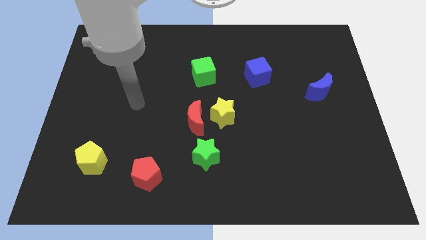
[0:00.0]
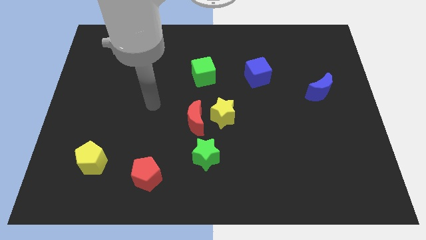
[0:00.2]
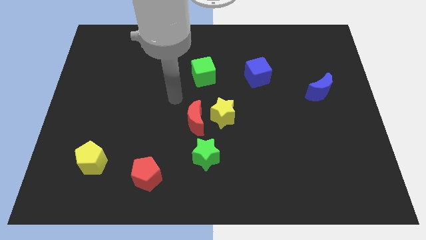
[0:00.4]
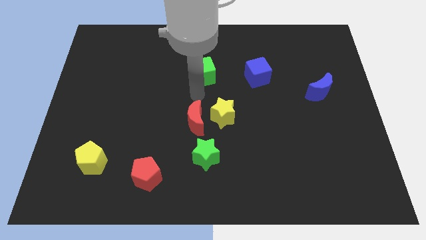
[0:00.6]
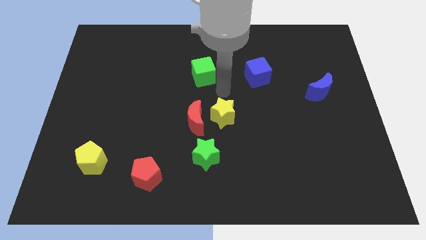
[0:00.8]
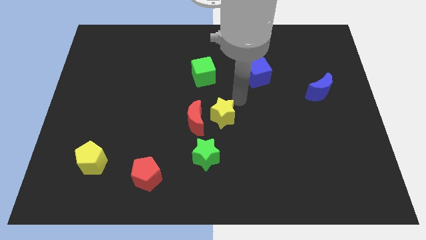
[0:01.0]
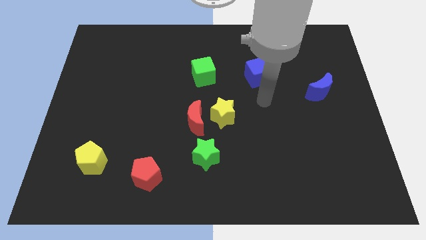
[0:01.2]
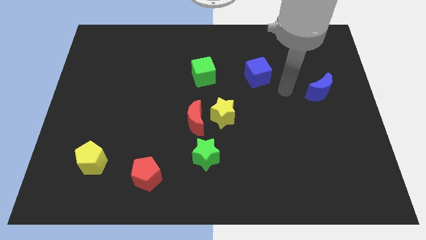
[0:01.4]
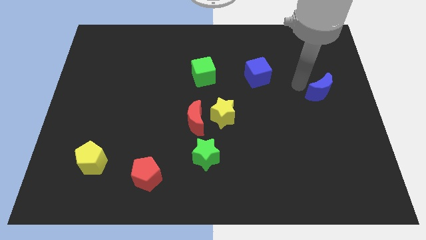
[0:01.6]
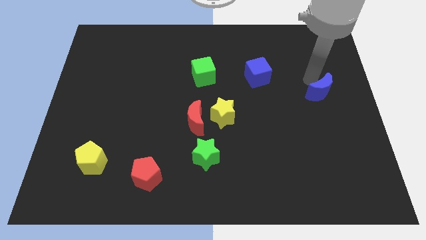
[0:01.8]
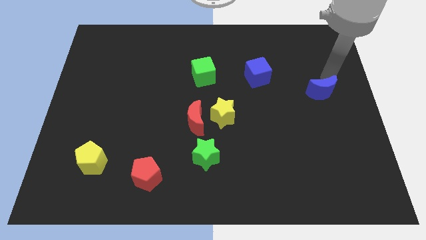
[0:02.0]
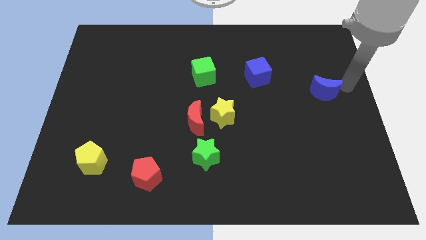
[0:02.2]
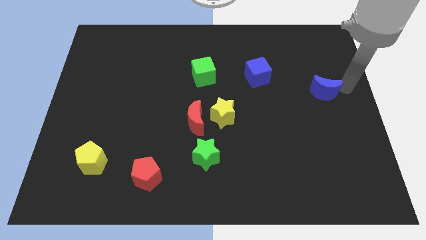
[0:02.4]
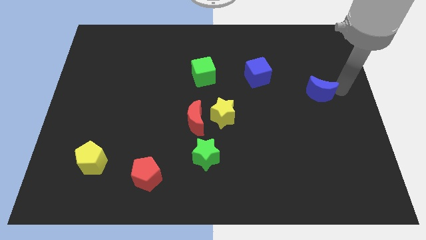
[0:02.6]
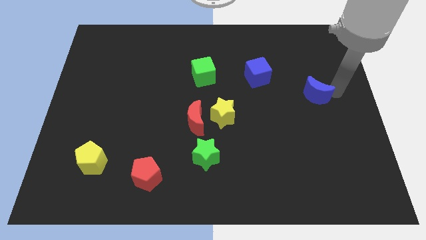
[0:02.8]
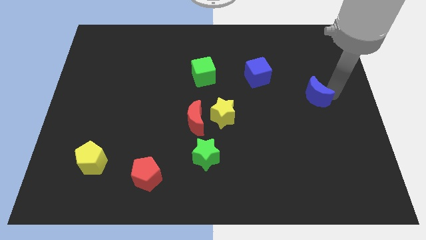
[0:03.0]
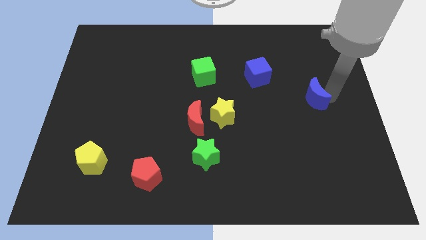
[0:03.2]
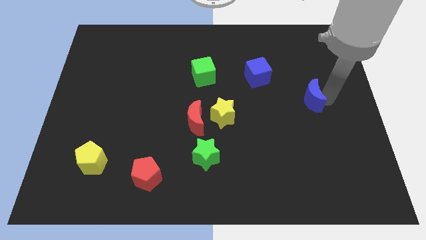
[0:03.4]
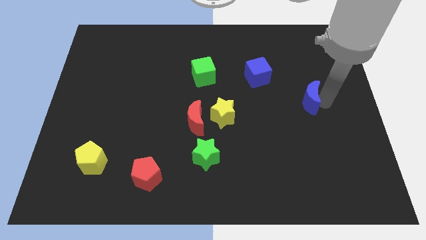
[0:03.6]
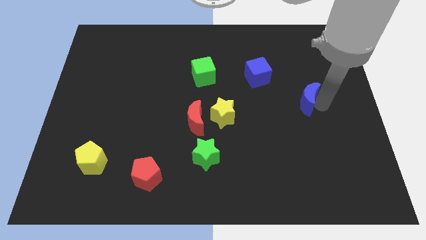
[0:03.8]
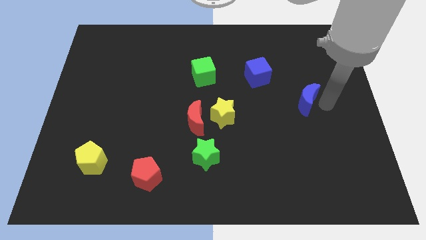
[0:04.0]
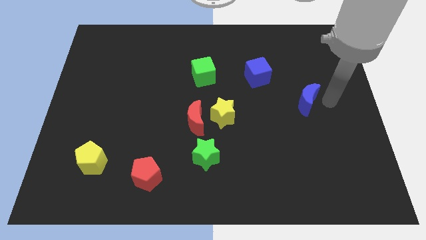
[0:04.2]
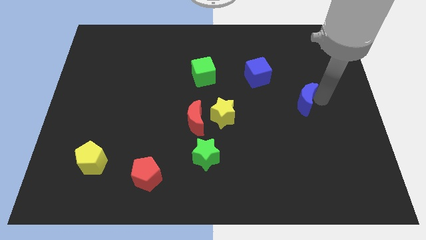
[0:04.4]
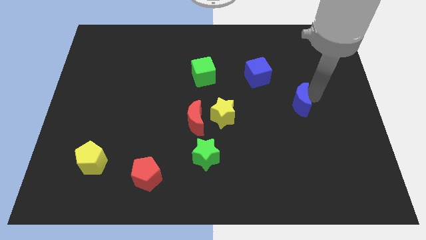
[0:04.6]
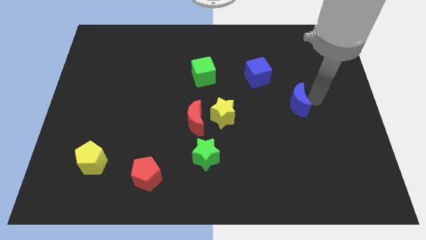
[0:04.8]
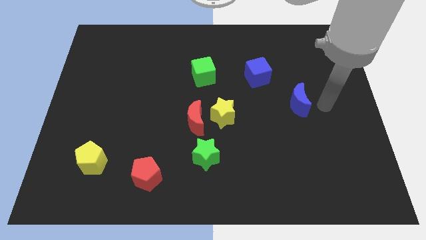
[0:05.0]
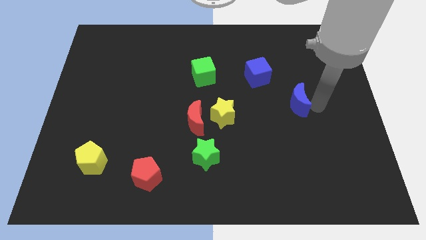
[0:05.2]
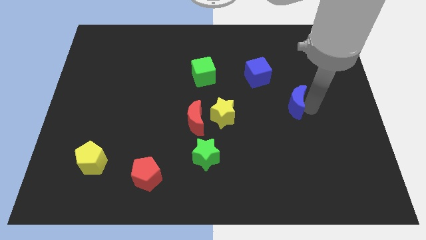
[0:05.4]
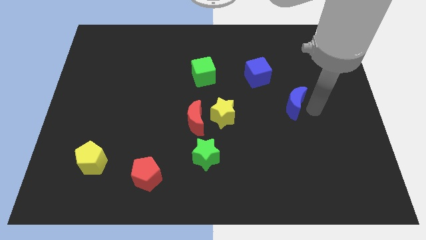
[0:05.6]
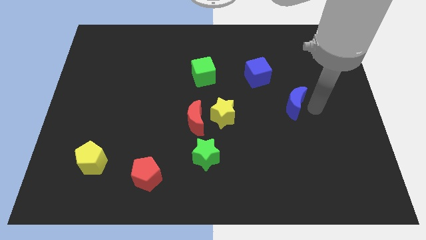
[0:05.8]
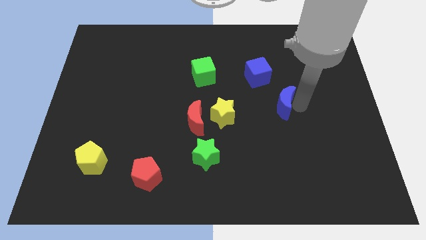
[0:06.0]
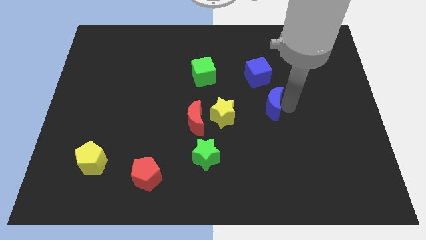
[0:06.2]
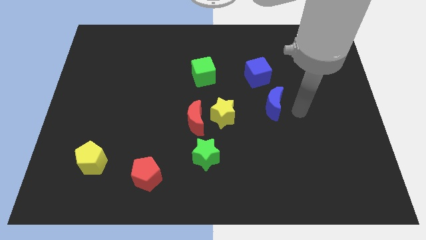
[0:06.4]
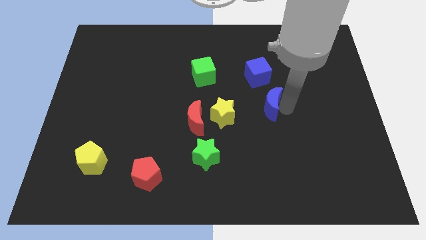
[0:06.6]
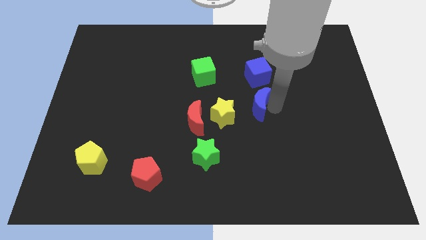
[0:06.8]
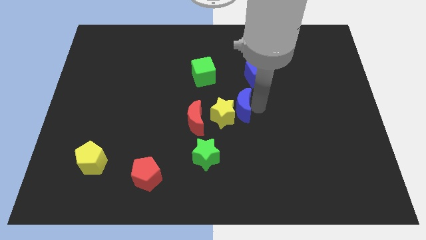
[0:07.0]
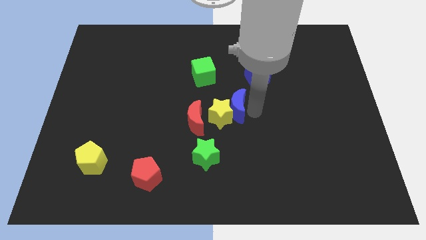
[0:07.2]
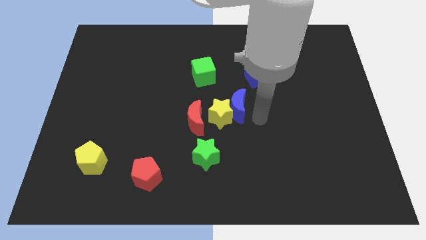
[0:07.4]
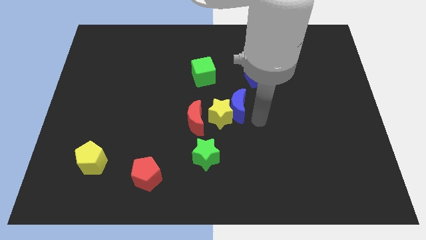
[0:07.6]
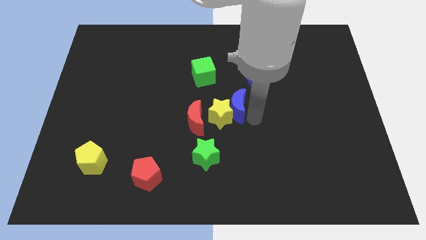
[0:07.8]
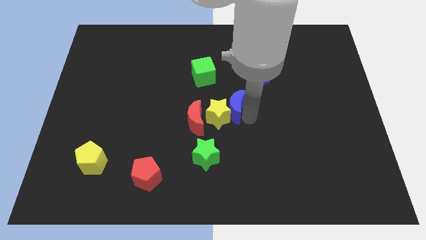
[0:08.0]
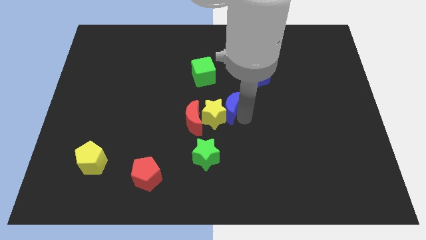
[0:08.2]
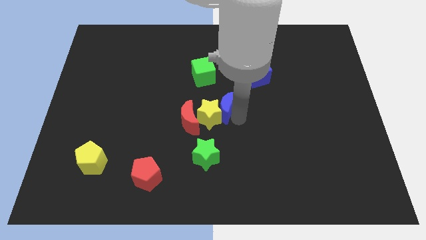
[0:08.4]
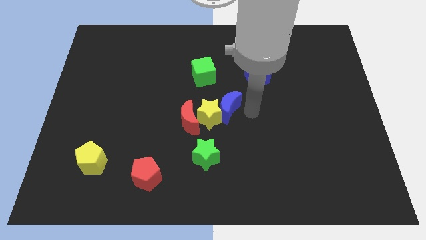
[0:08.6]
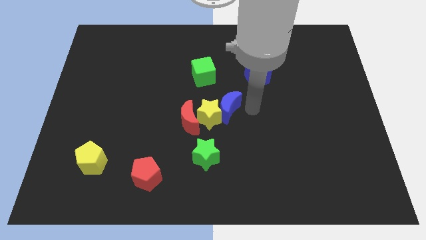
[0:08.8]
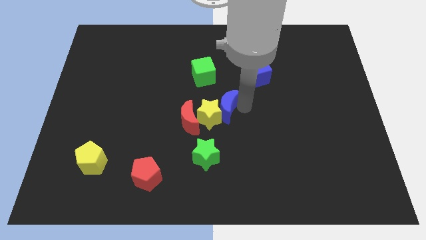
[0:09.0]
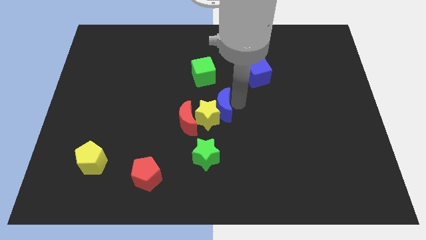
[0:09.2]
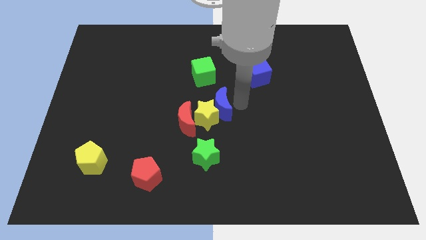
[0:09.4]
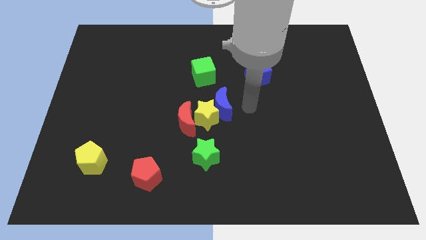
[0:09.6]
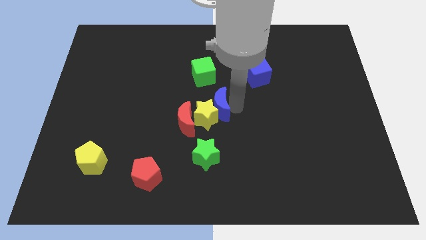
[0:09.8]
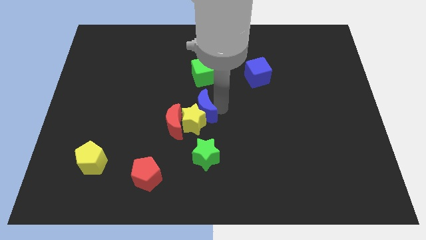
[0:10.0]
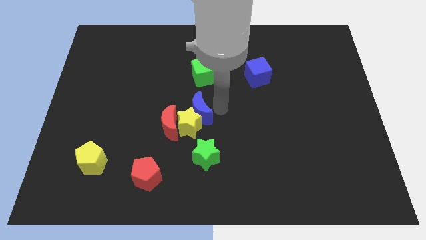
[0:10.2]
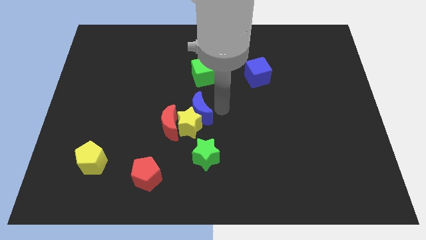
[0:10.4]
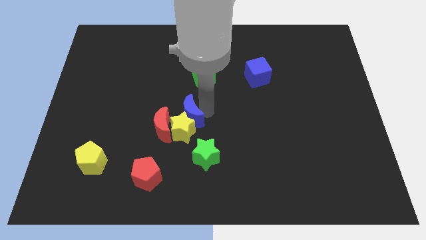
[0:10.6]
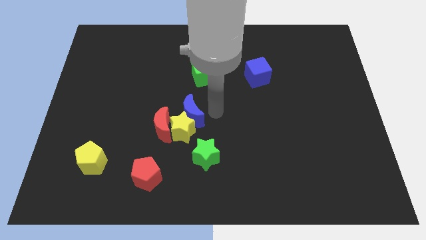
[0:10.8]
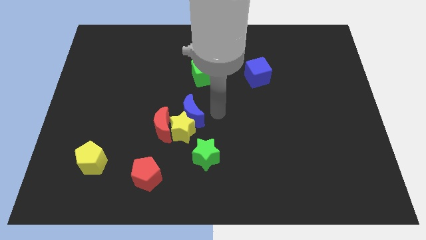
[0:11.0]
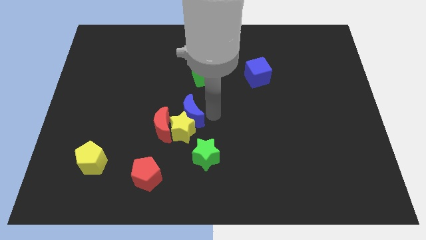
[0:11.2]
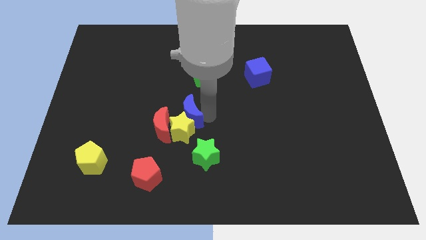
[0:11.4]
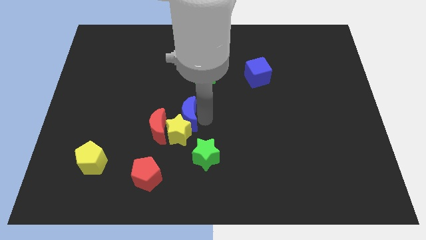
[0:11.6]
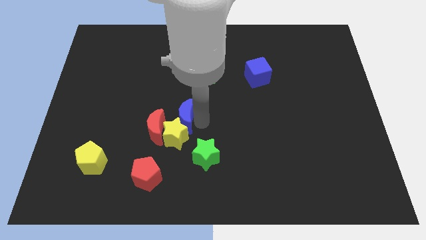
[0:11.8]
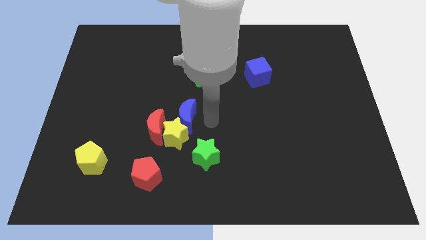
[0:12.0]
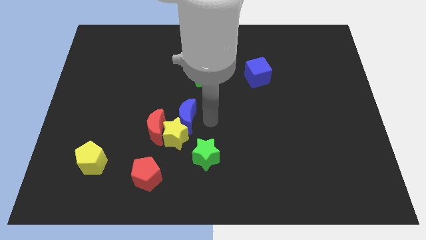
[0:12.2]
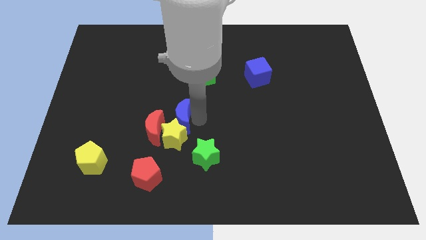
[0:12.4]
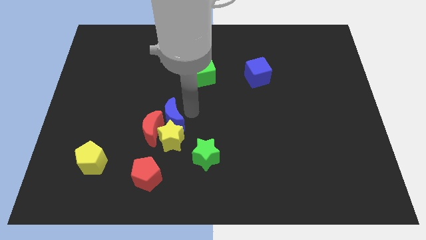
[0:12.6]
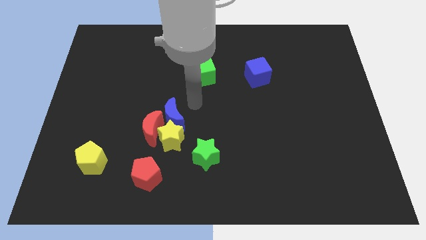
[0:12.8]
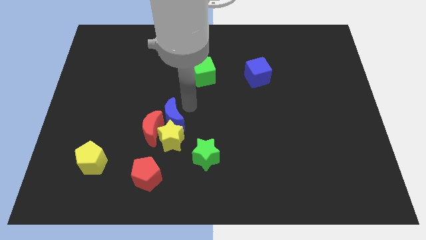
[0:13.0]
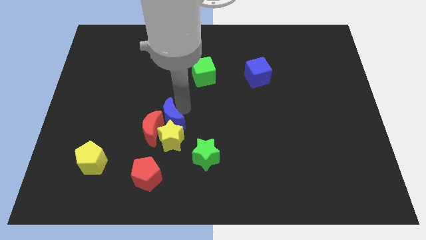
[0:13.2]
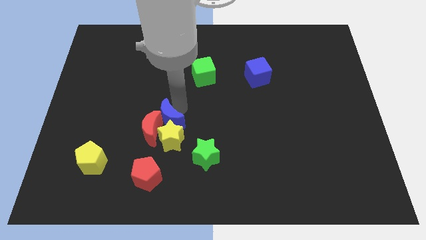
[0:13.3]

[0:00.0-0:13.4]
put the blue moon to the top of the red pentagon

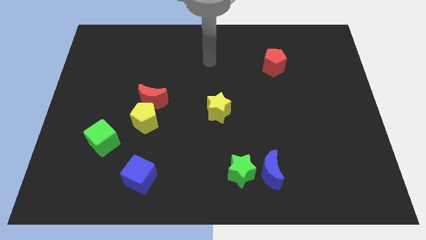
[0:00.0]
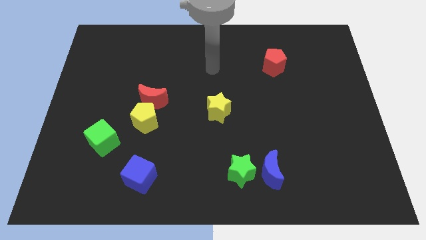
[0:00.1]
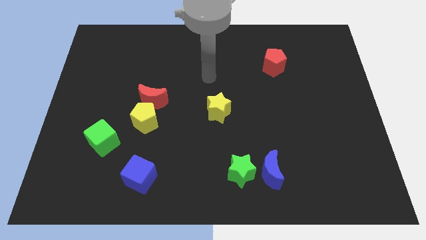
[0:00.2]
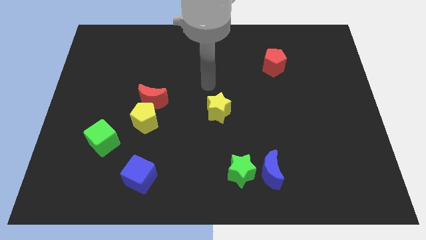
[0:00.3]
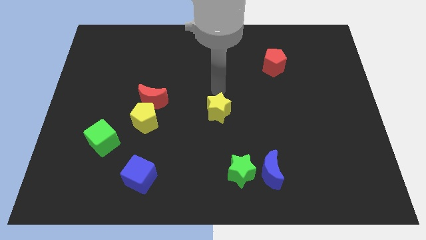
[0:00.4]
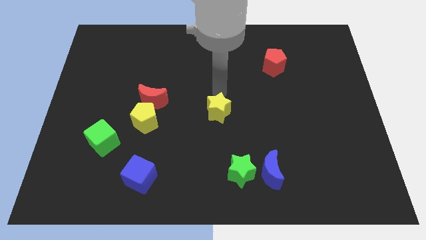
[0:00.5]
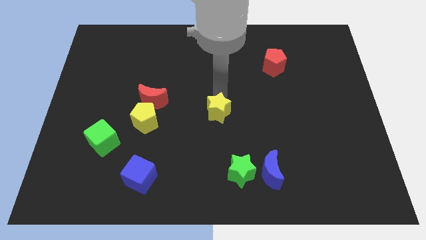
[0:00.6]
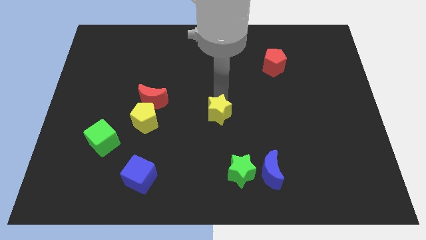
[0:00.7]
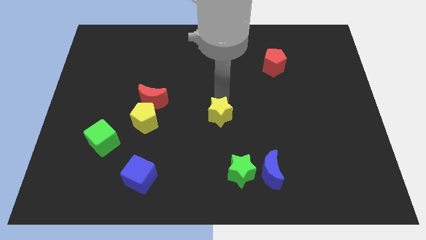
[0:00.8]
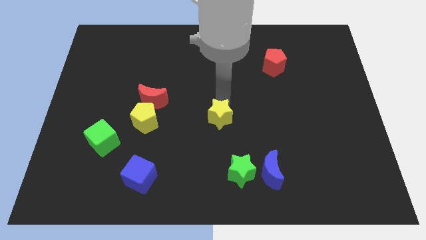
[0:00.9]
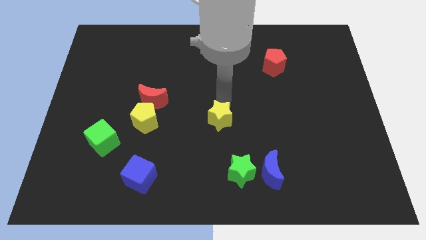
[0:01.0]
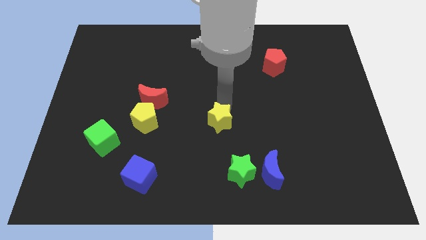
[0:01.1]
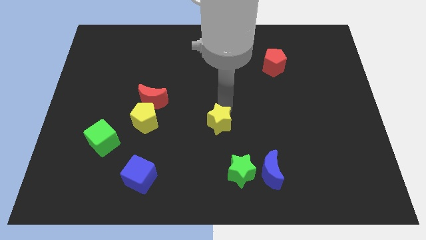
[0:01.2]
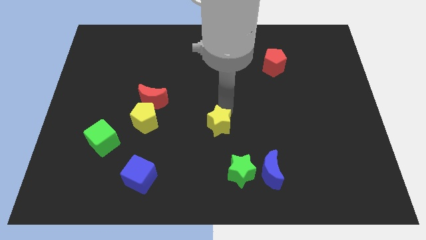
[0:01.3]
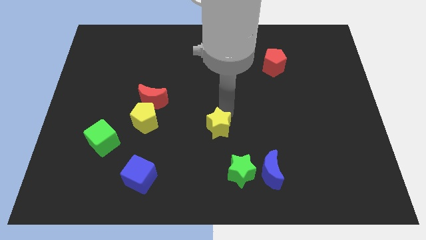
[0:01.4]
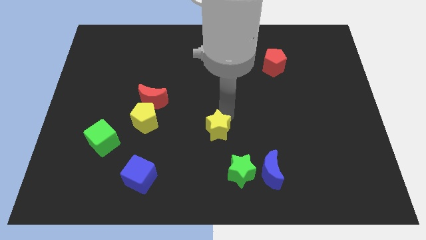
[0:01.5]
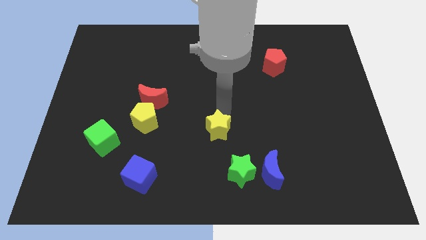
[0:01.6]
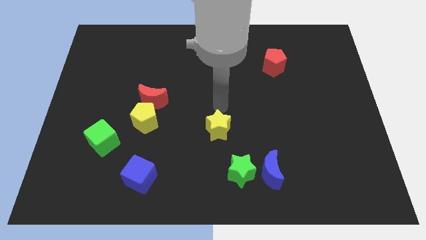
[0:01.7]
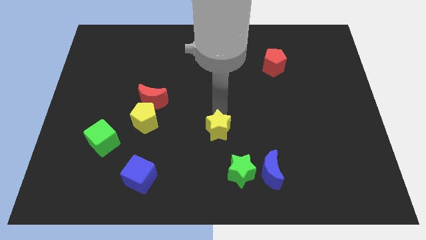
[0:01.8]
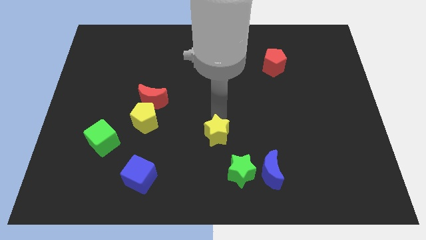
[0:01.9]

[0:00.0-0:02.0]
put the yellow star to the top left side of the green star
